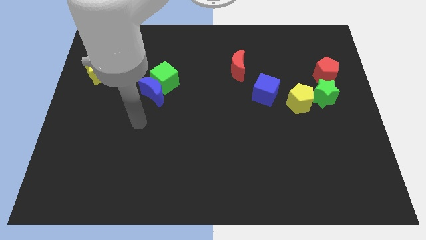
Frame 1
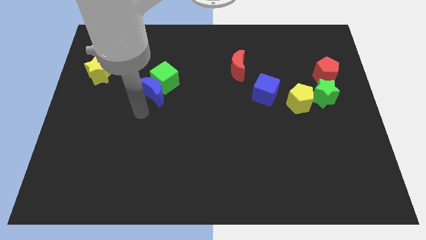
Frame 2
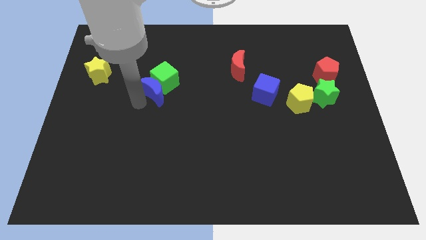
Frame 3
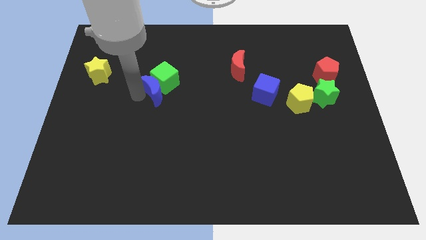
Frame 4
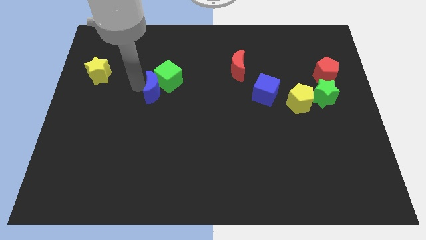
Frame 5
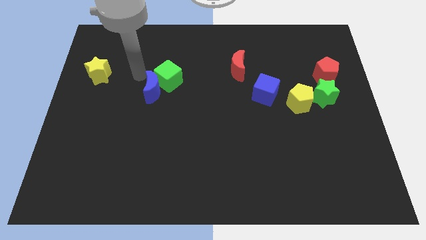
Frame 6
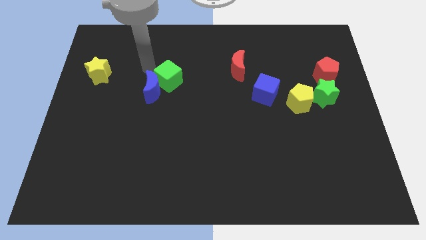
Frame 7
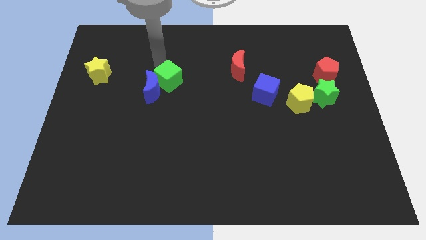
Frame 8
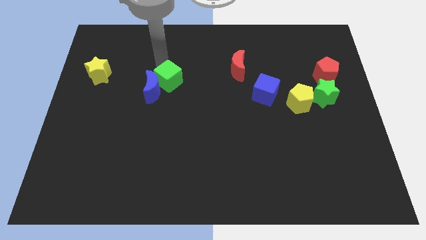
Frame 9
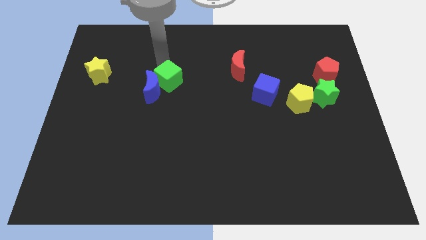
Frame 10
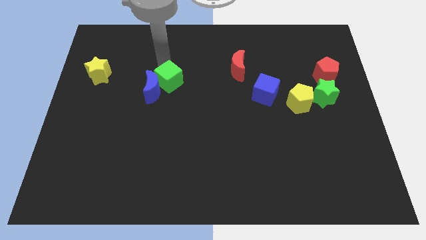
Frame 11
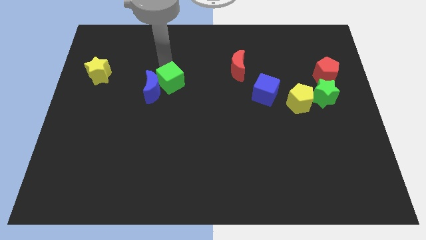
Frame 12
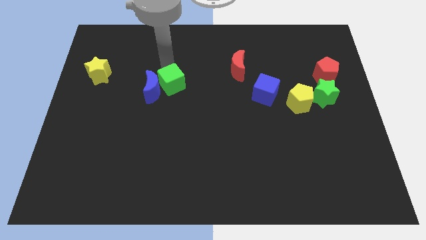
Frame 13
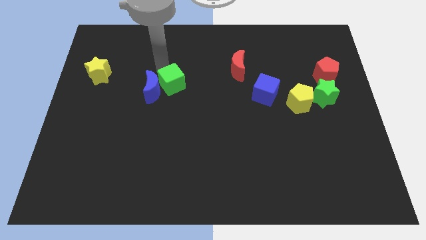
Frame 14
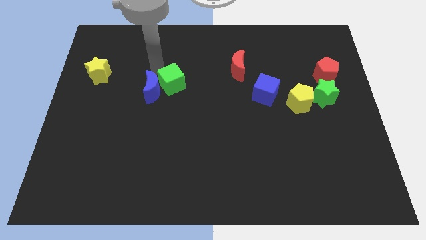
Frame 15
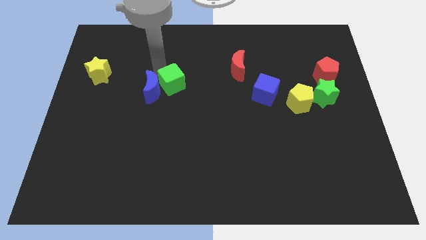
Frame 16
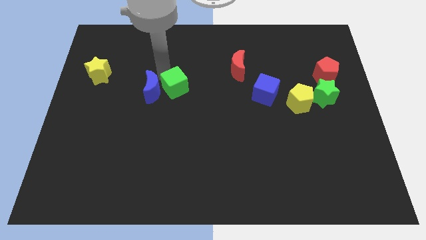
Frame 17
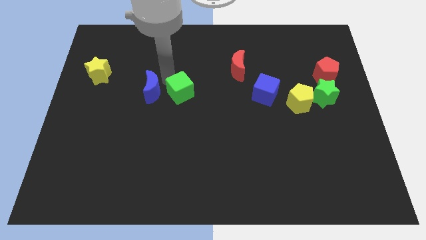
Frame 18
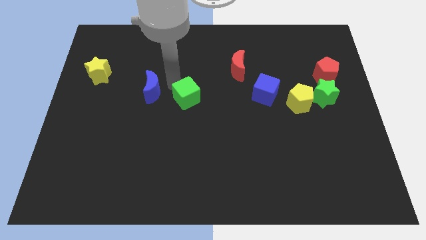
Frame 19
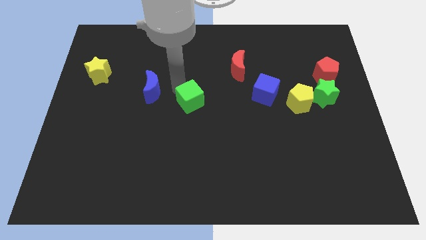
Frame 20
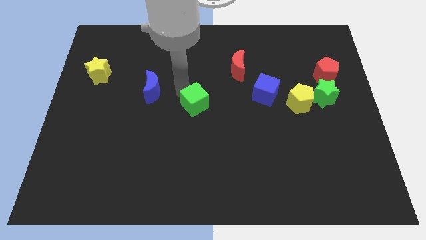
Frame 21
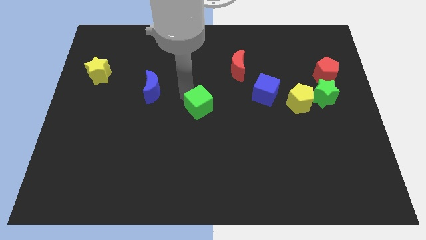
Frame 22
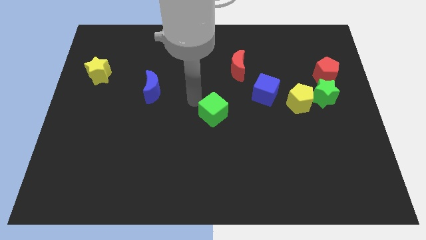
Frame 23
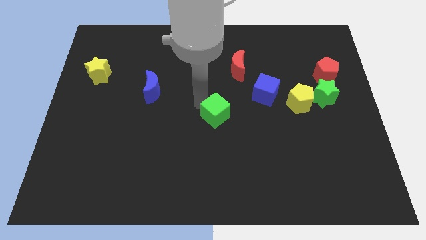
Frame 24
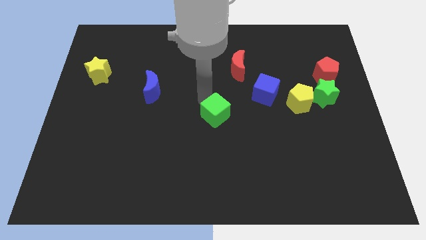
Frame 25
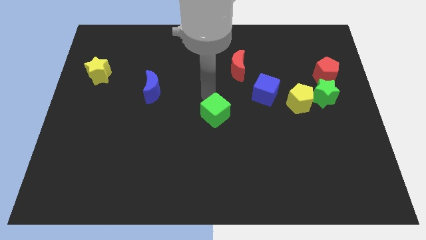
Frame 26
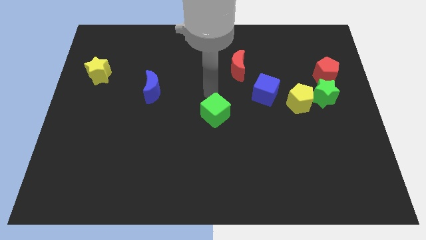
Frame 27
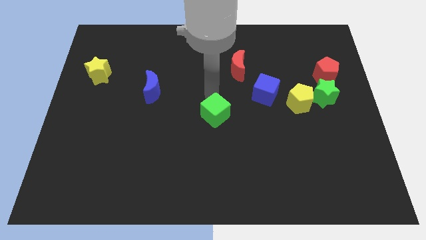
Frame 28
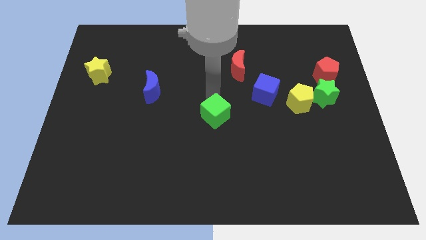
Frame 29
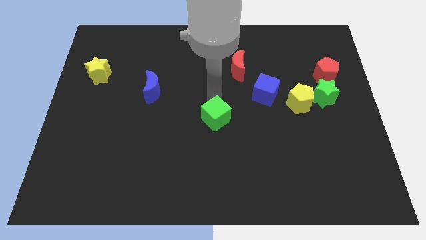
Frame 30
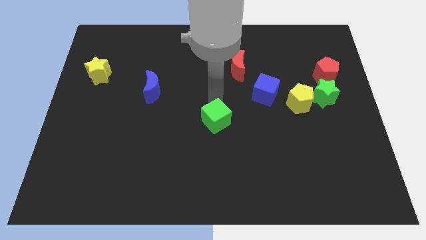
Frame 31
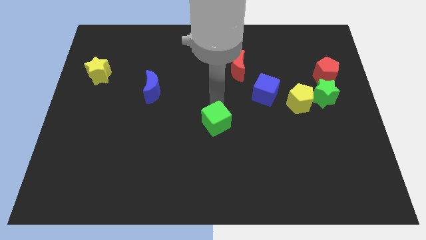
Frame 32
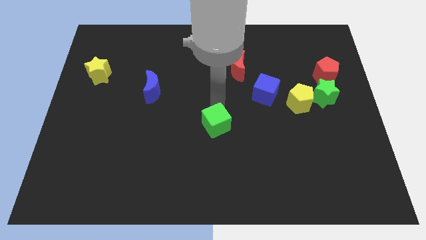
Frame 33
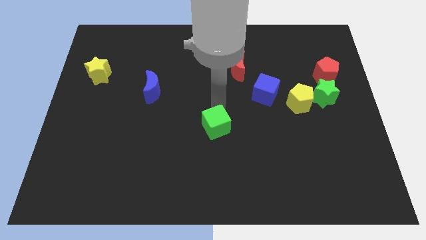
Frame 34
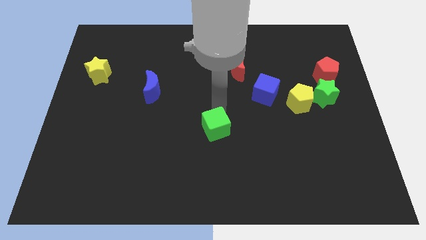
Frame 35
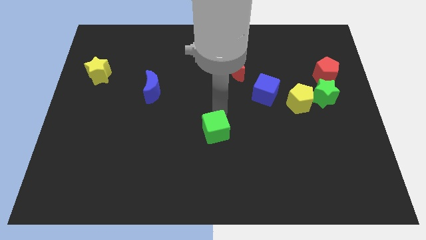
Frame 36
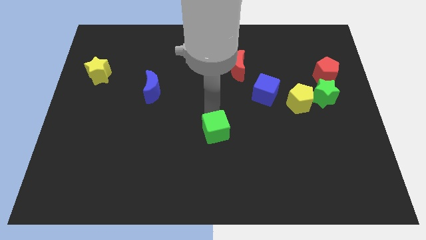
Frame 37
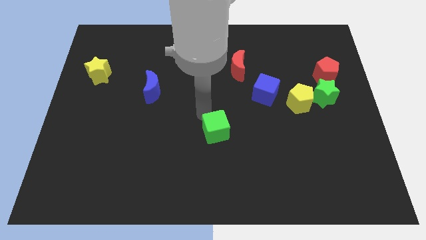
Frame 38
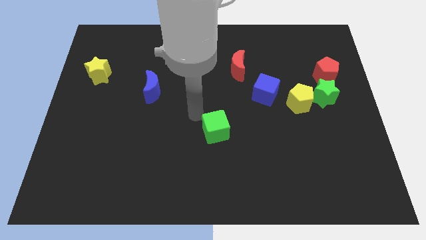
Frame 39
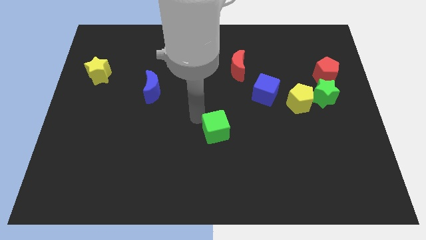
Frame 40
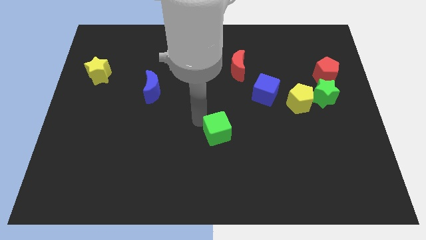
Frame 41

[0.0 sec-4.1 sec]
move the green cube downwards and to the right

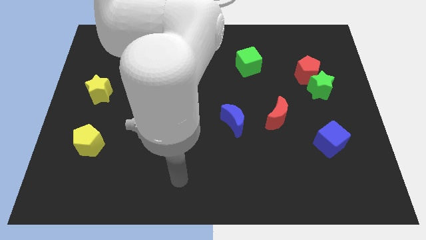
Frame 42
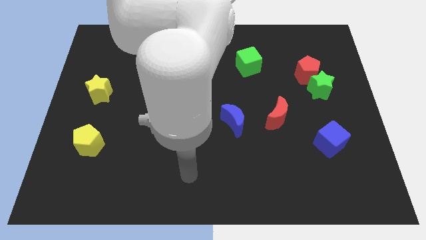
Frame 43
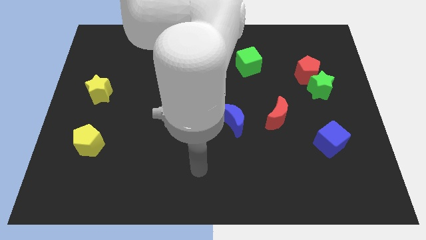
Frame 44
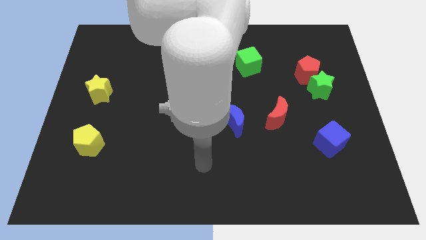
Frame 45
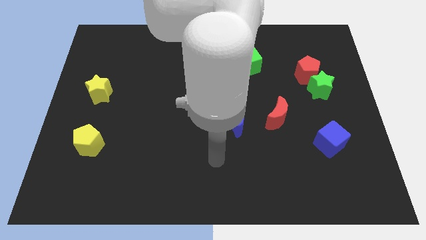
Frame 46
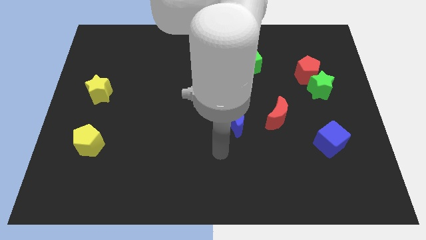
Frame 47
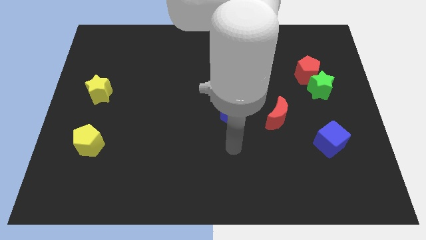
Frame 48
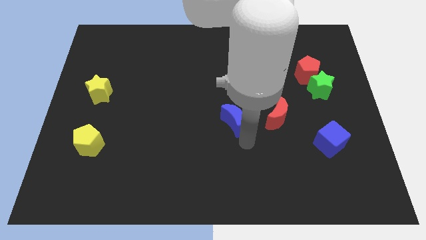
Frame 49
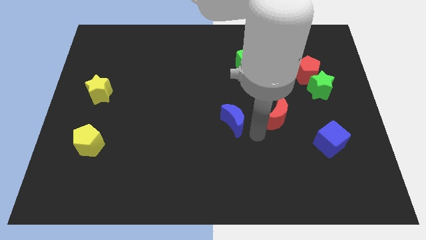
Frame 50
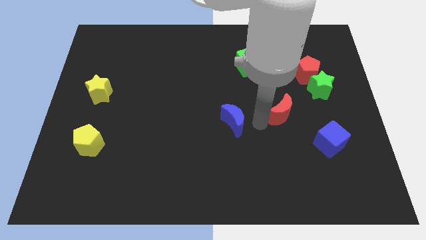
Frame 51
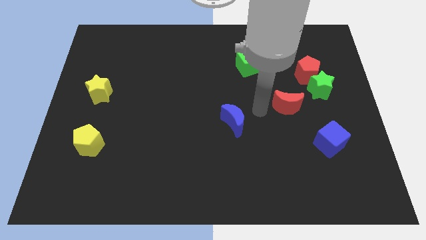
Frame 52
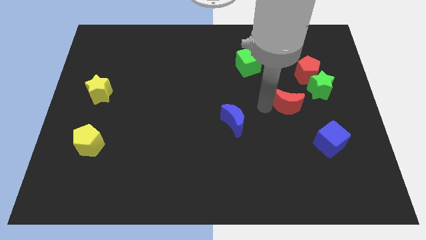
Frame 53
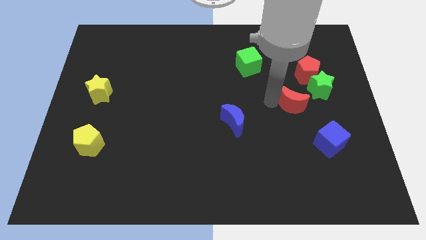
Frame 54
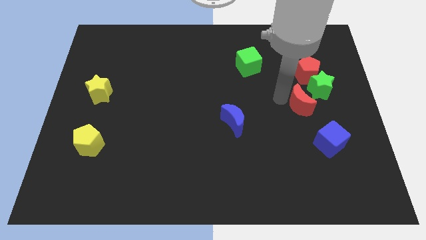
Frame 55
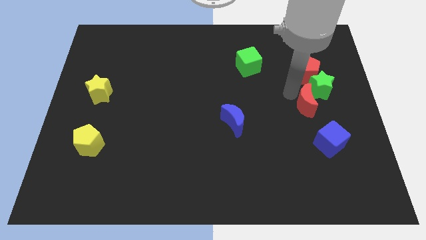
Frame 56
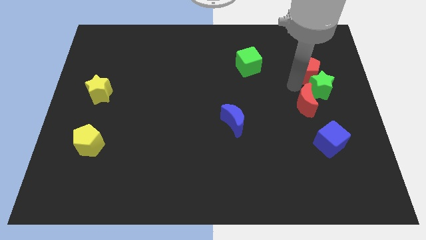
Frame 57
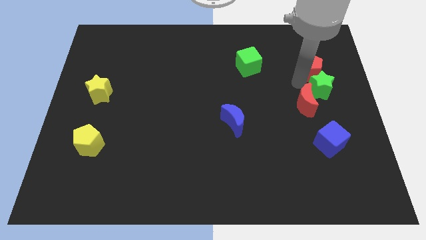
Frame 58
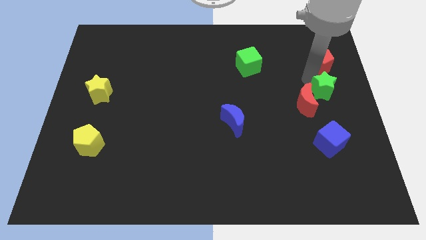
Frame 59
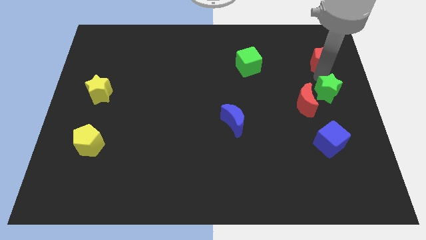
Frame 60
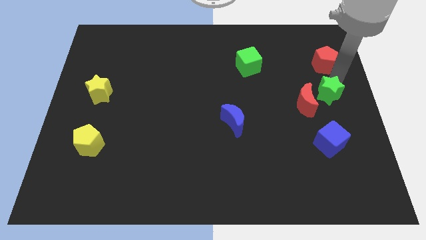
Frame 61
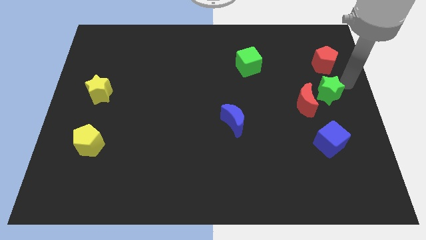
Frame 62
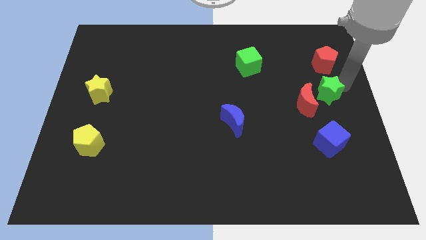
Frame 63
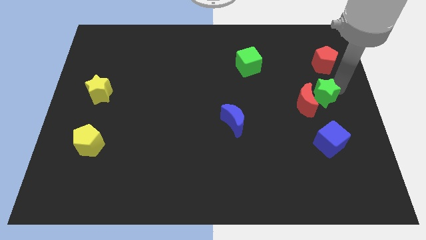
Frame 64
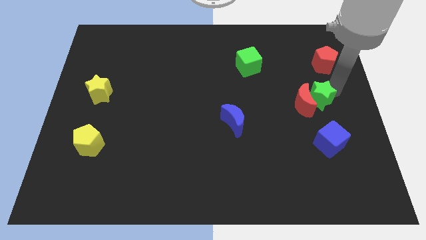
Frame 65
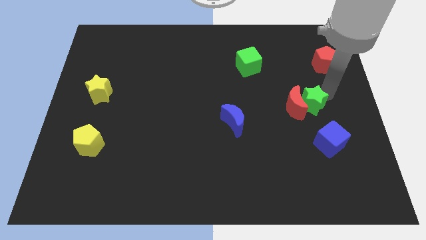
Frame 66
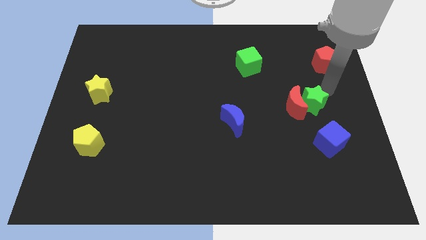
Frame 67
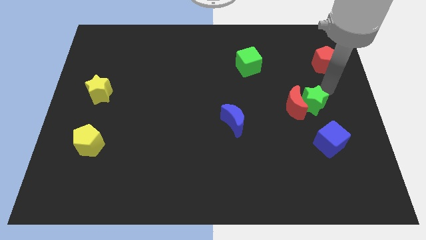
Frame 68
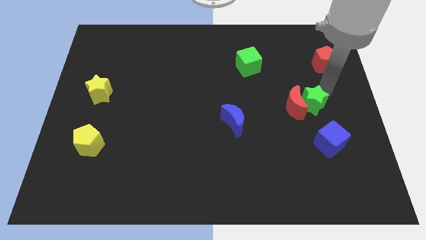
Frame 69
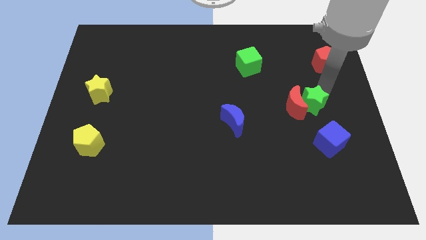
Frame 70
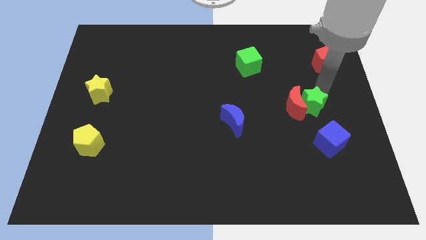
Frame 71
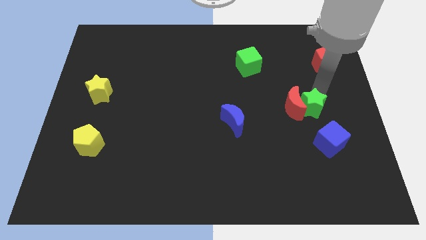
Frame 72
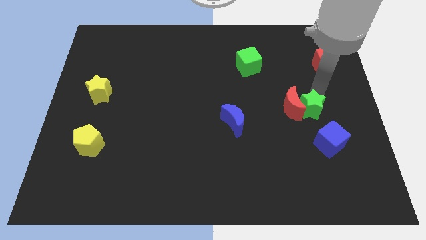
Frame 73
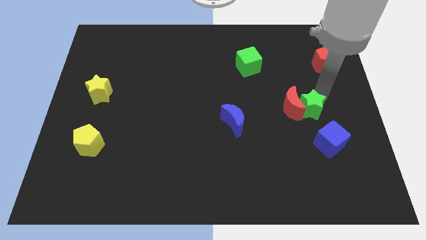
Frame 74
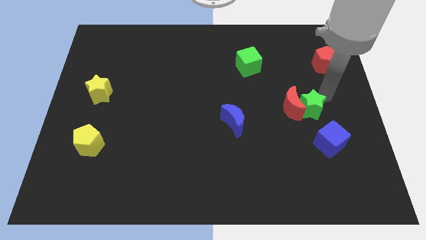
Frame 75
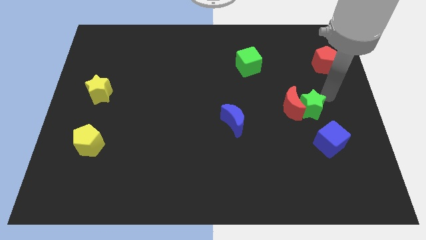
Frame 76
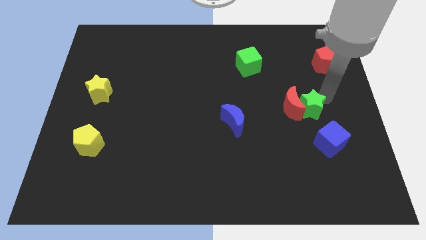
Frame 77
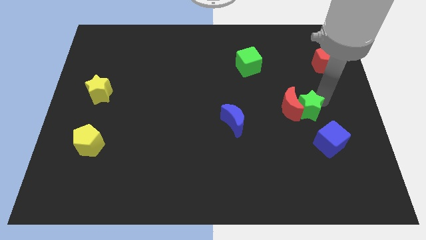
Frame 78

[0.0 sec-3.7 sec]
move the green star diagonally downwards and left a little
